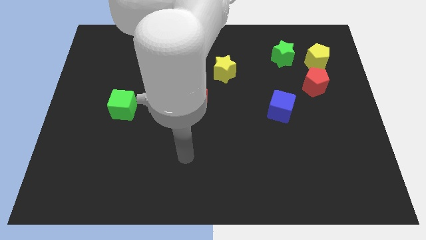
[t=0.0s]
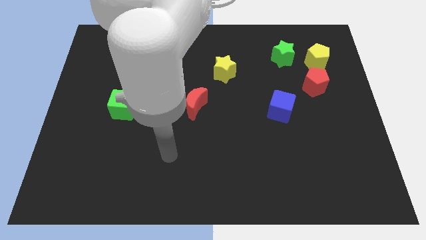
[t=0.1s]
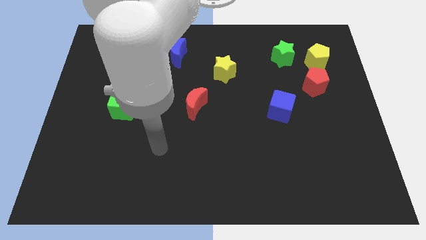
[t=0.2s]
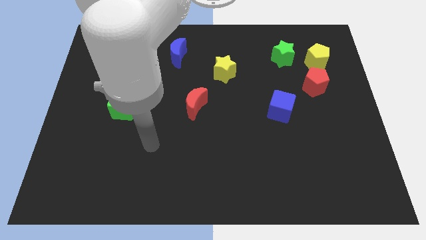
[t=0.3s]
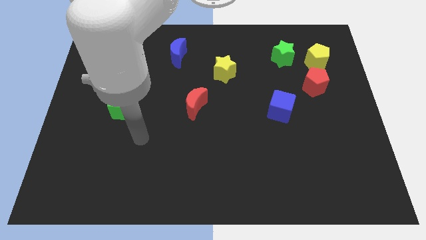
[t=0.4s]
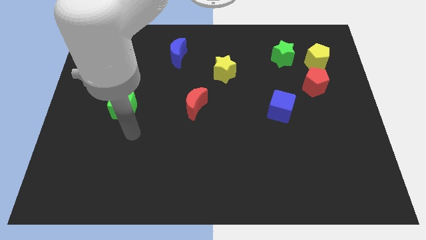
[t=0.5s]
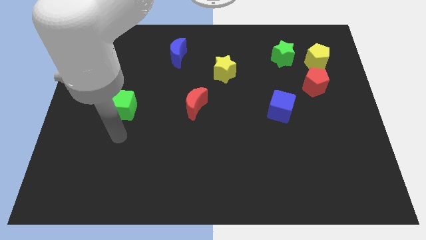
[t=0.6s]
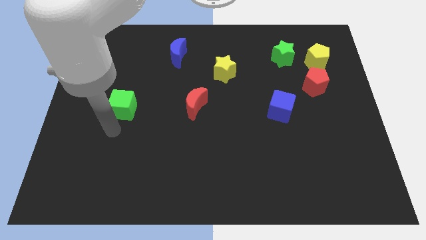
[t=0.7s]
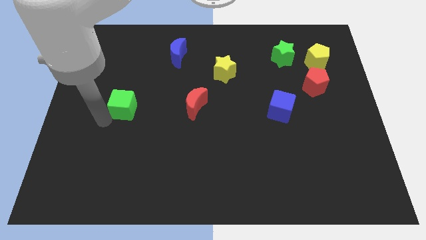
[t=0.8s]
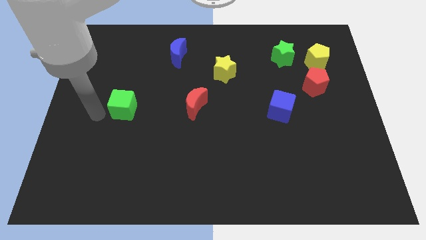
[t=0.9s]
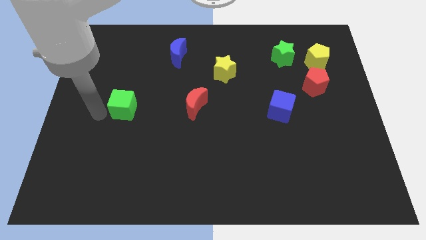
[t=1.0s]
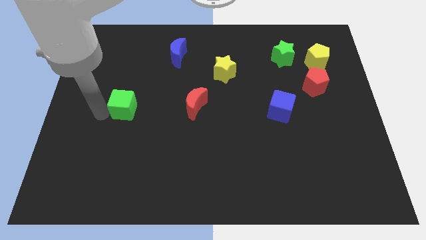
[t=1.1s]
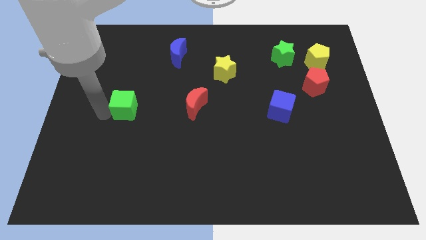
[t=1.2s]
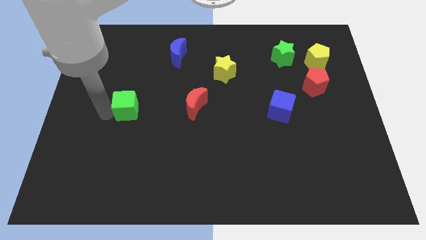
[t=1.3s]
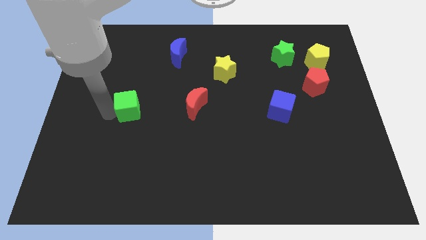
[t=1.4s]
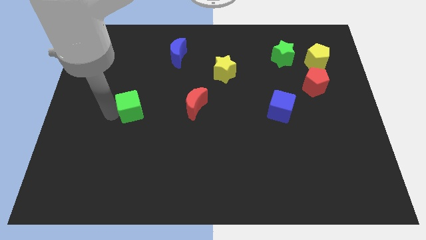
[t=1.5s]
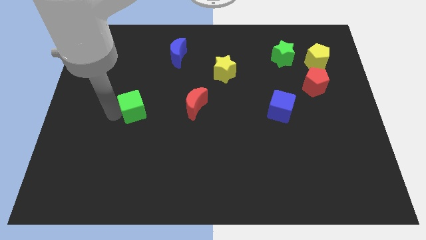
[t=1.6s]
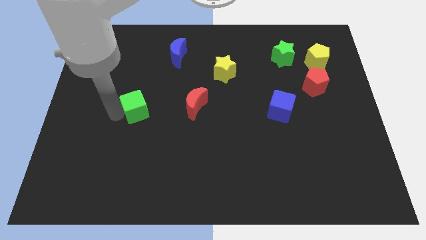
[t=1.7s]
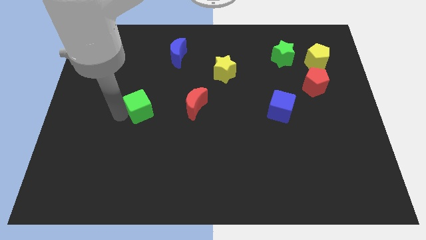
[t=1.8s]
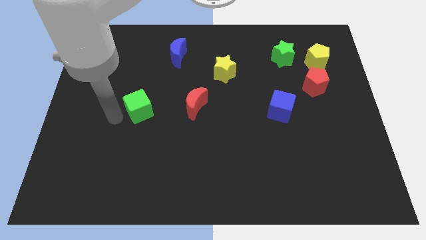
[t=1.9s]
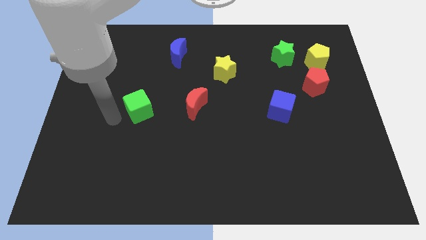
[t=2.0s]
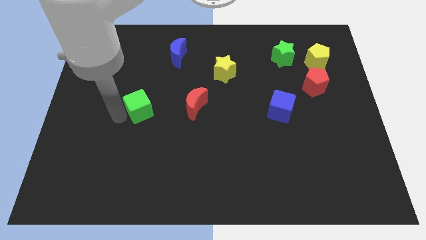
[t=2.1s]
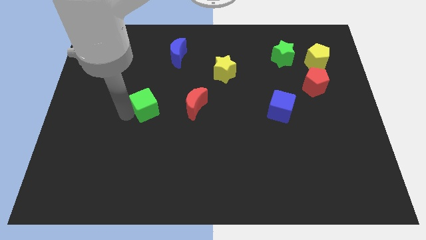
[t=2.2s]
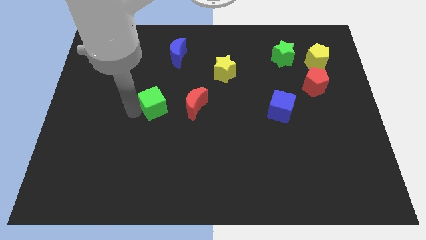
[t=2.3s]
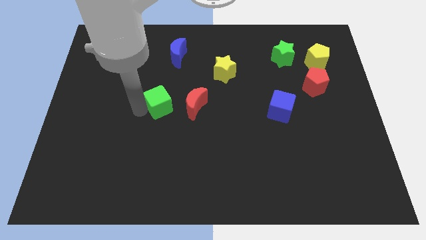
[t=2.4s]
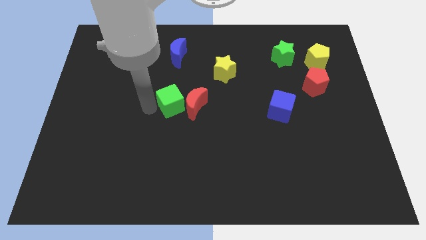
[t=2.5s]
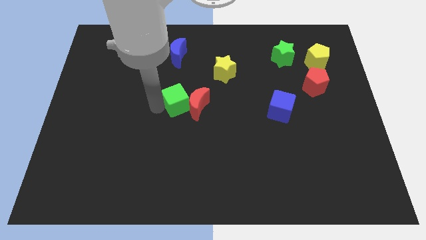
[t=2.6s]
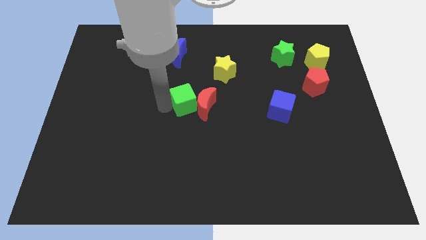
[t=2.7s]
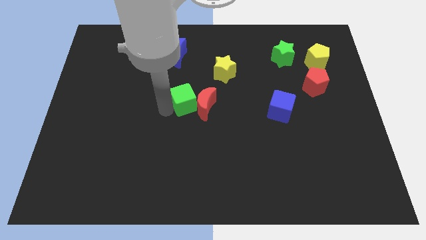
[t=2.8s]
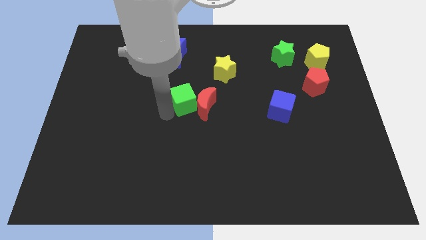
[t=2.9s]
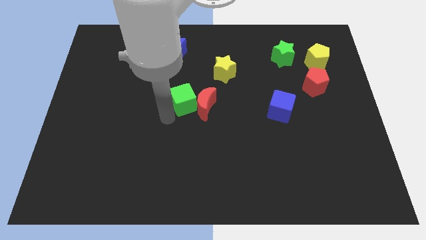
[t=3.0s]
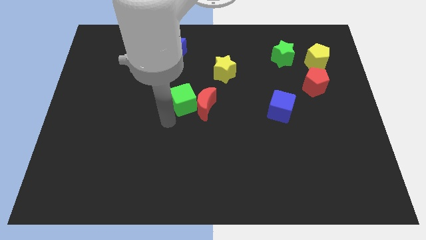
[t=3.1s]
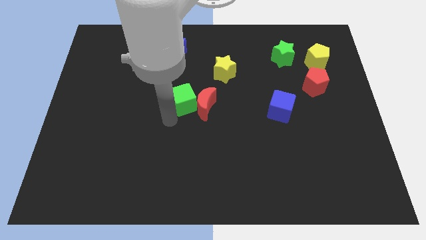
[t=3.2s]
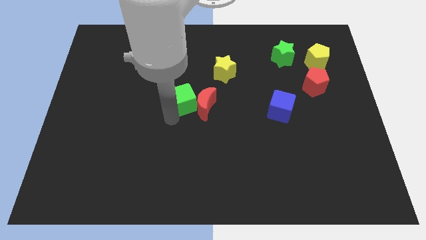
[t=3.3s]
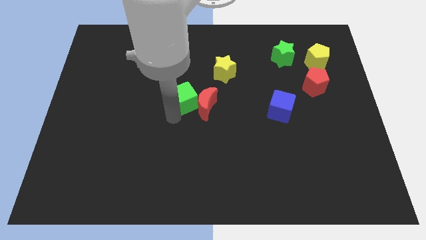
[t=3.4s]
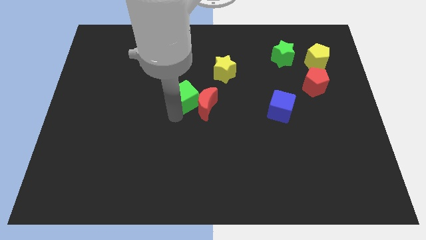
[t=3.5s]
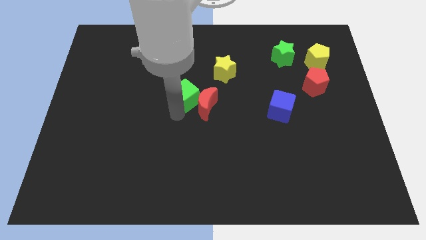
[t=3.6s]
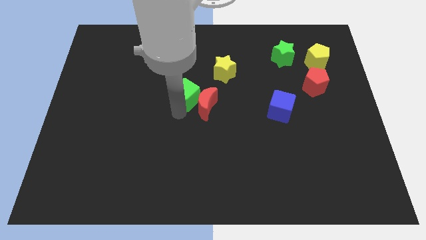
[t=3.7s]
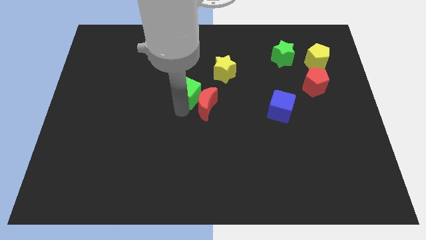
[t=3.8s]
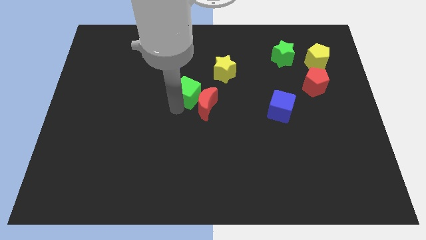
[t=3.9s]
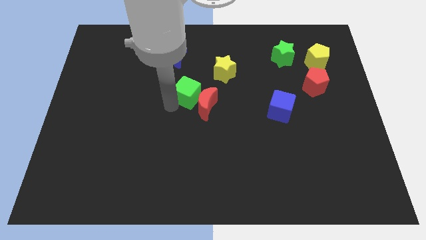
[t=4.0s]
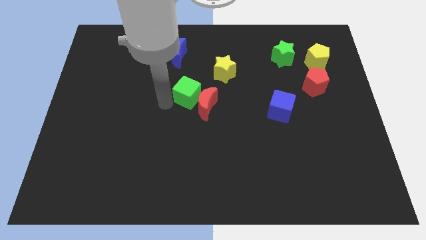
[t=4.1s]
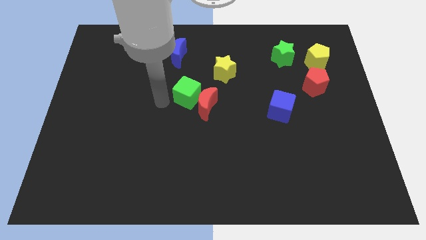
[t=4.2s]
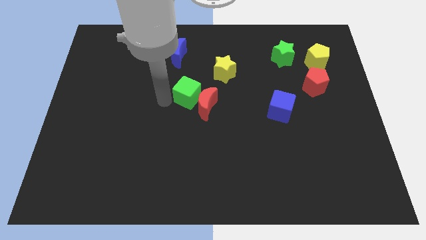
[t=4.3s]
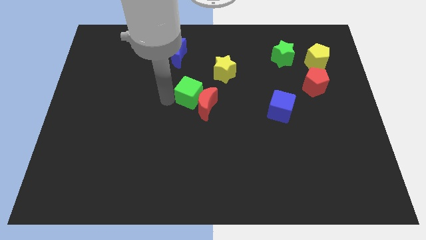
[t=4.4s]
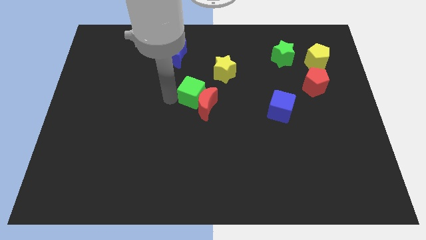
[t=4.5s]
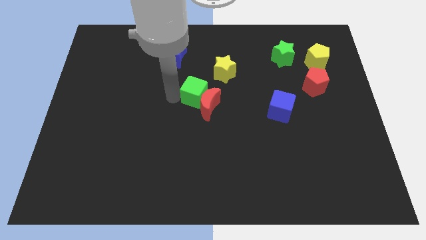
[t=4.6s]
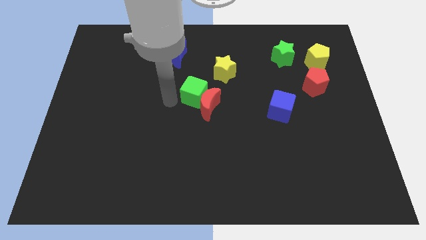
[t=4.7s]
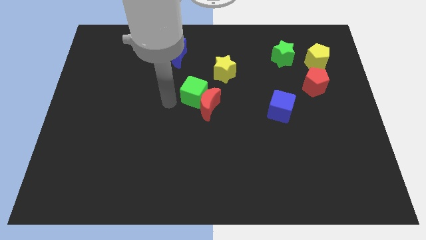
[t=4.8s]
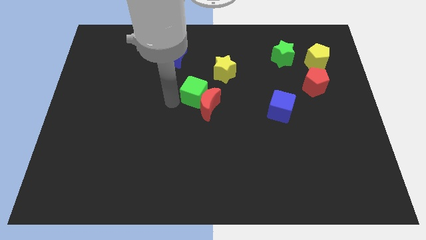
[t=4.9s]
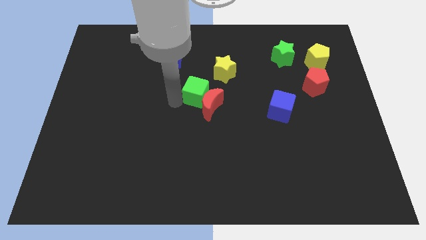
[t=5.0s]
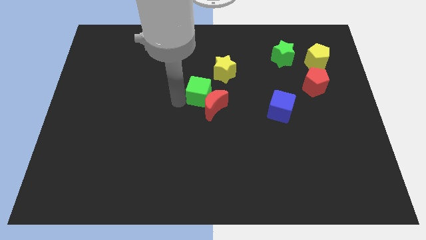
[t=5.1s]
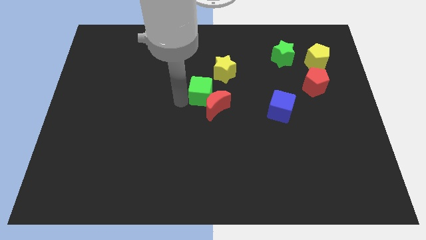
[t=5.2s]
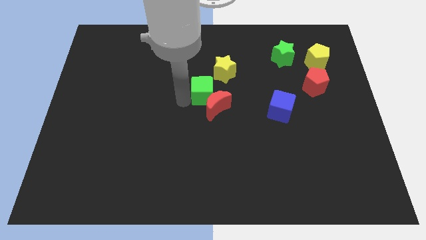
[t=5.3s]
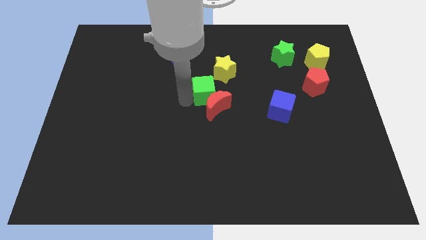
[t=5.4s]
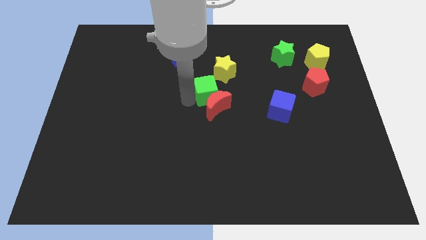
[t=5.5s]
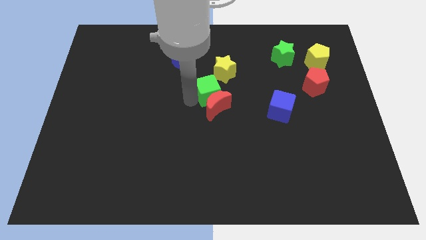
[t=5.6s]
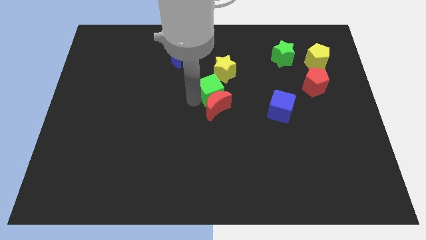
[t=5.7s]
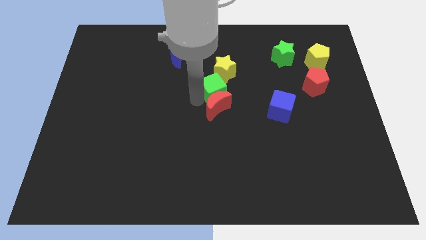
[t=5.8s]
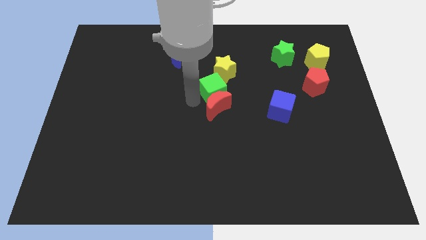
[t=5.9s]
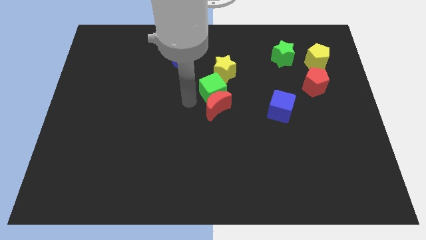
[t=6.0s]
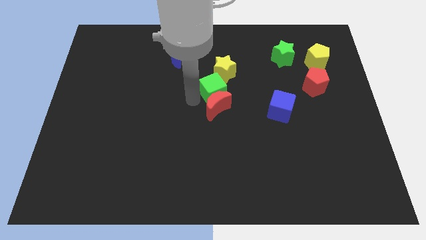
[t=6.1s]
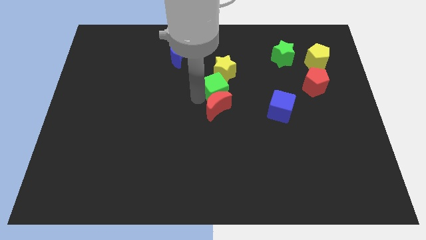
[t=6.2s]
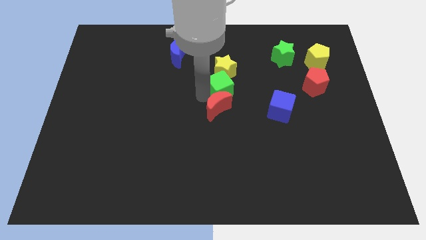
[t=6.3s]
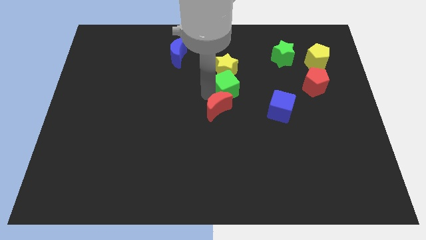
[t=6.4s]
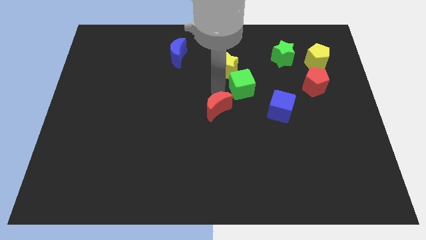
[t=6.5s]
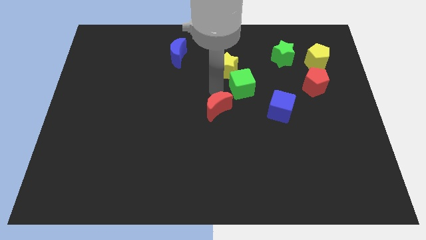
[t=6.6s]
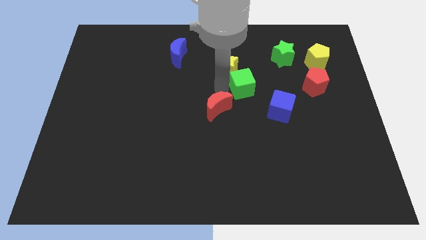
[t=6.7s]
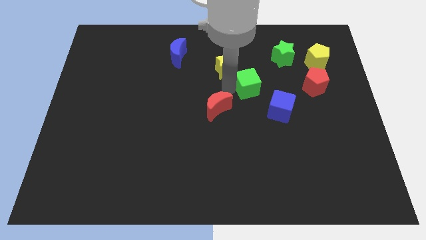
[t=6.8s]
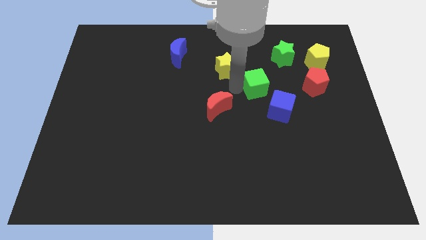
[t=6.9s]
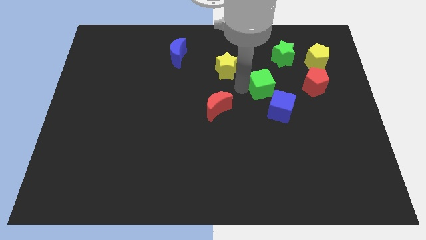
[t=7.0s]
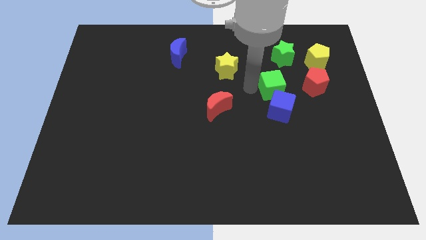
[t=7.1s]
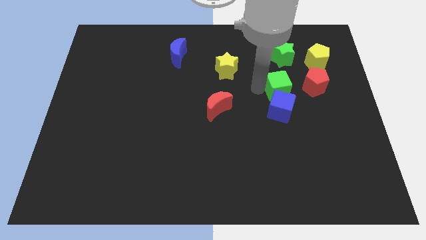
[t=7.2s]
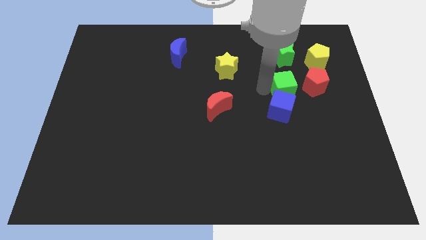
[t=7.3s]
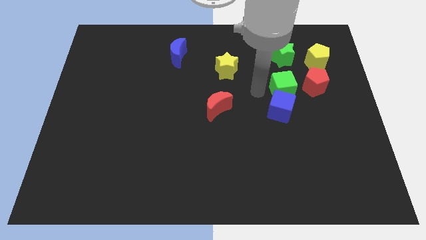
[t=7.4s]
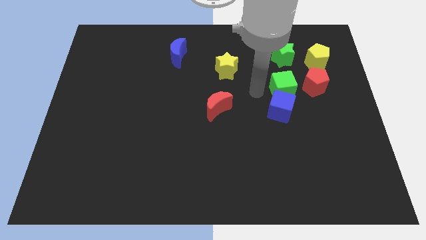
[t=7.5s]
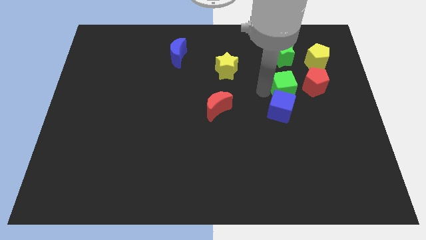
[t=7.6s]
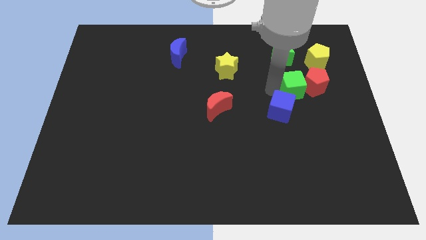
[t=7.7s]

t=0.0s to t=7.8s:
put the green cube to the red pentagon
